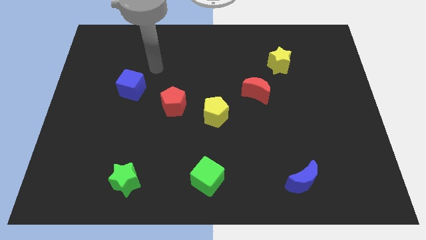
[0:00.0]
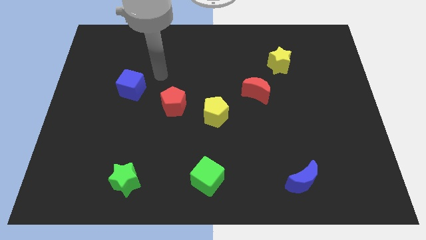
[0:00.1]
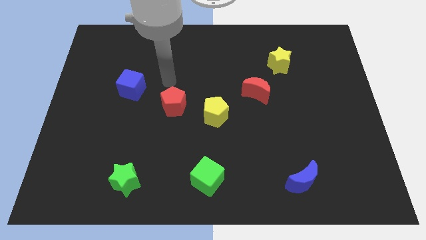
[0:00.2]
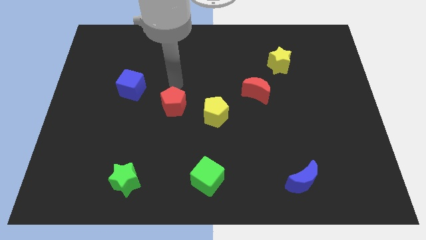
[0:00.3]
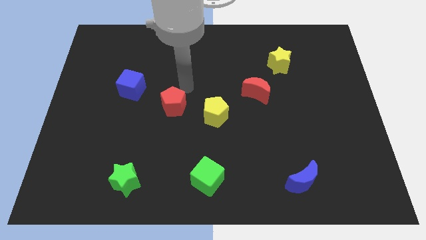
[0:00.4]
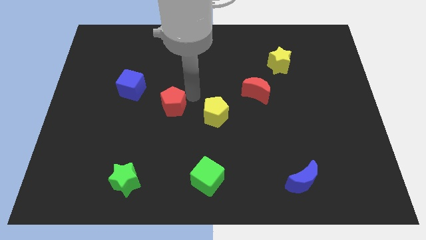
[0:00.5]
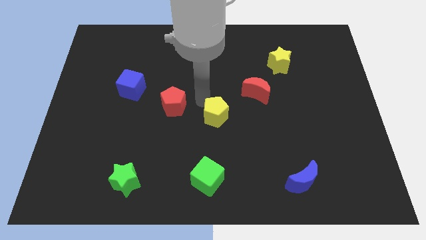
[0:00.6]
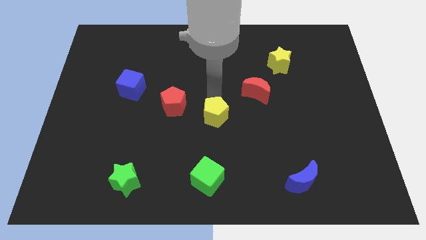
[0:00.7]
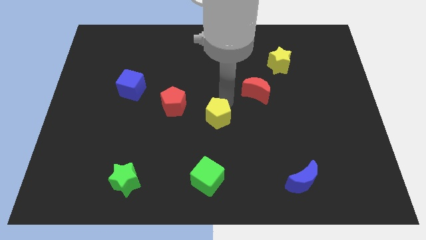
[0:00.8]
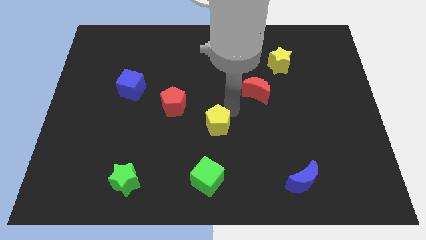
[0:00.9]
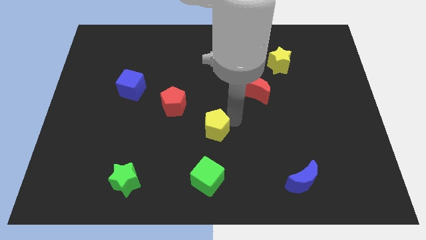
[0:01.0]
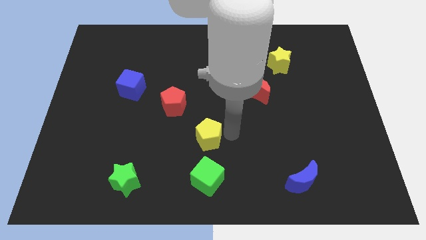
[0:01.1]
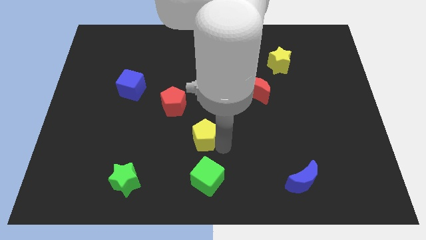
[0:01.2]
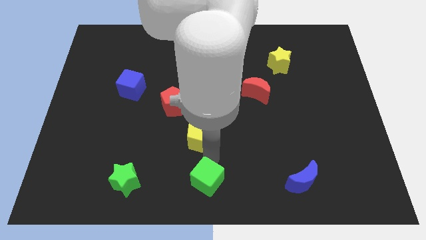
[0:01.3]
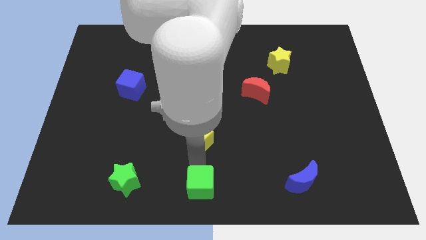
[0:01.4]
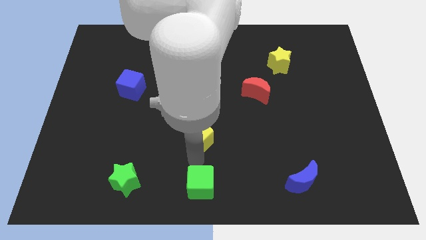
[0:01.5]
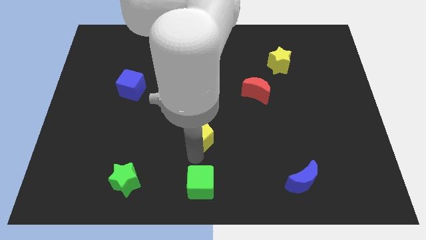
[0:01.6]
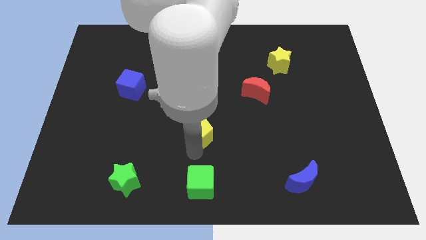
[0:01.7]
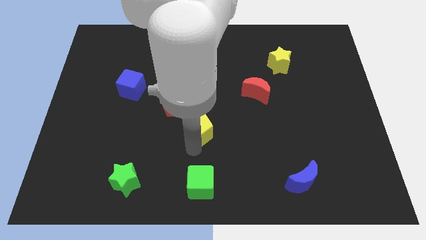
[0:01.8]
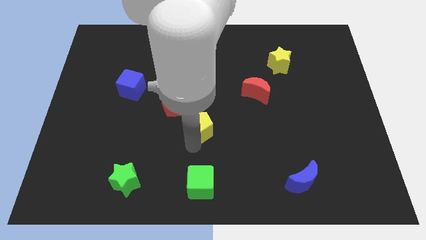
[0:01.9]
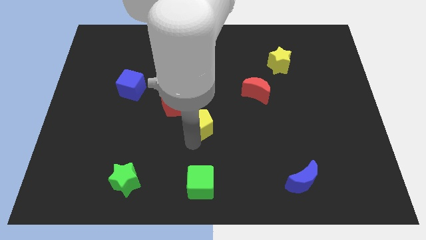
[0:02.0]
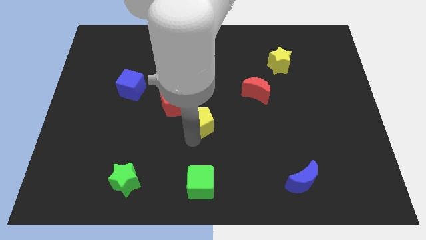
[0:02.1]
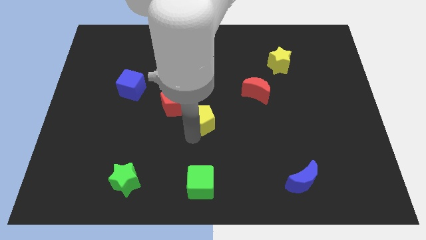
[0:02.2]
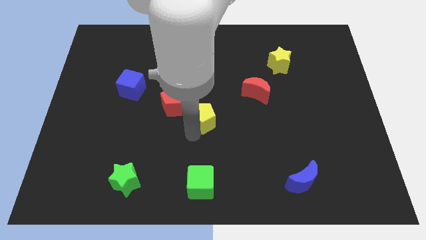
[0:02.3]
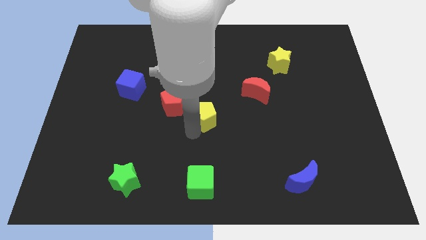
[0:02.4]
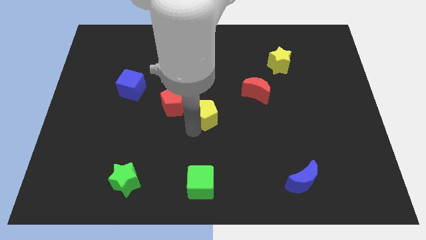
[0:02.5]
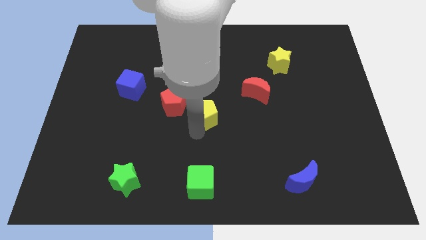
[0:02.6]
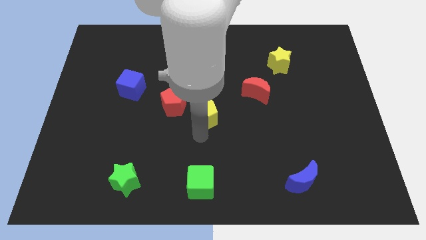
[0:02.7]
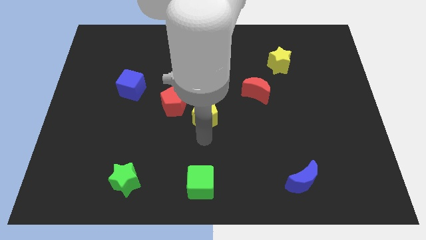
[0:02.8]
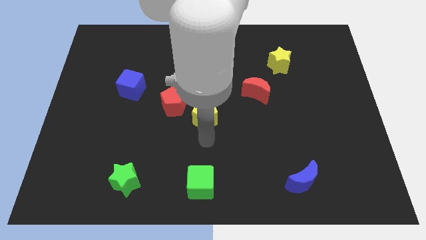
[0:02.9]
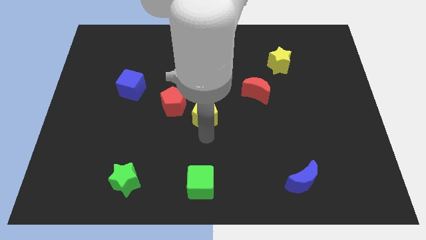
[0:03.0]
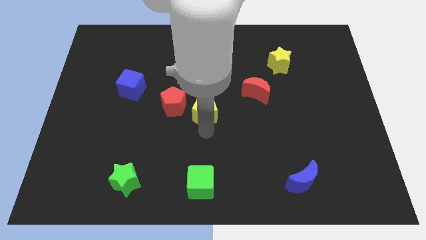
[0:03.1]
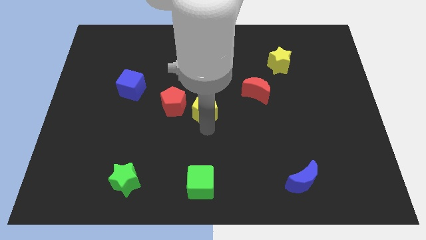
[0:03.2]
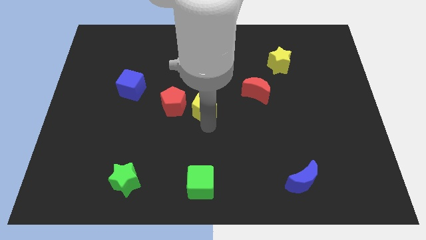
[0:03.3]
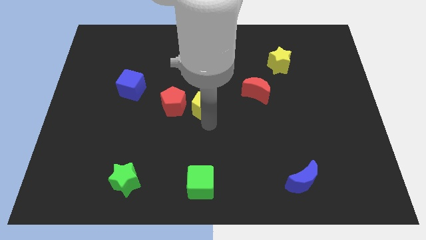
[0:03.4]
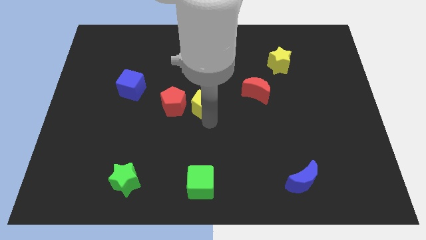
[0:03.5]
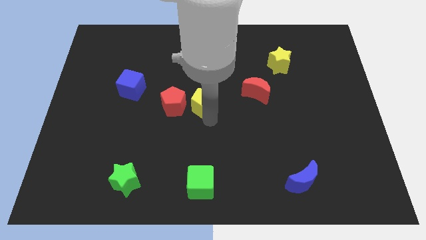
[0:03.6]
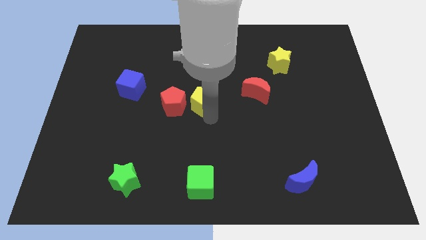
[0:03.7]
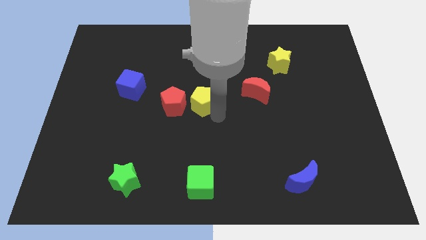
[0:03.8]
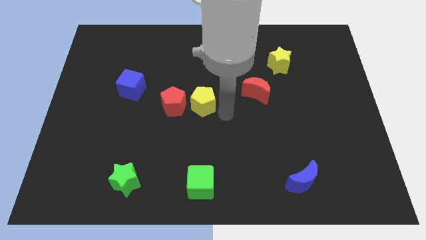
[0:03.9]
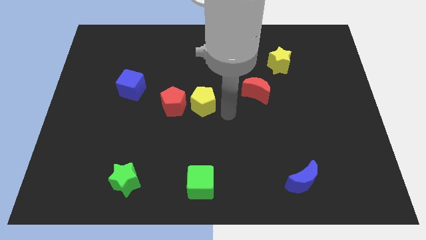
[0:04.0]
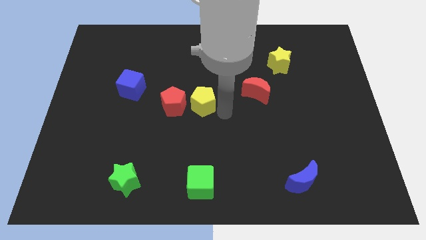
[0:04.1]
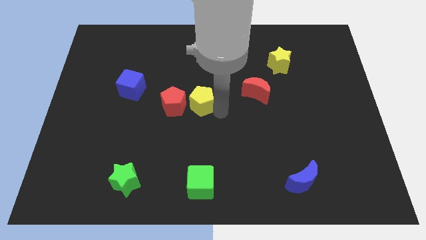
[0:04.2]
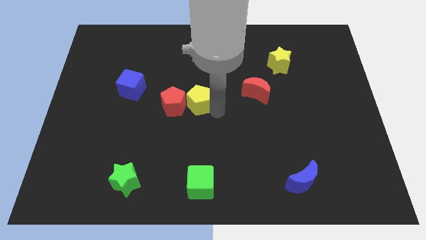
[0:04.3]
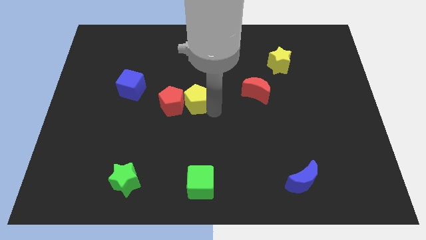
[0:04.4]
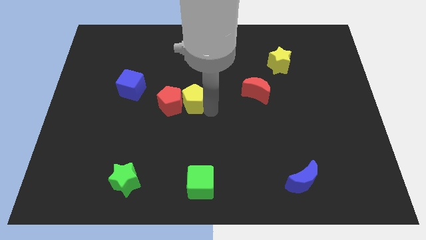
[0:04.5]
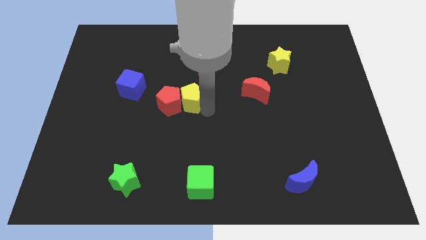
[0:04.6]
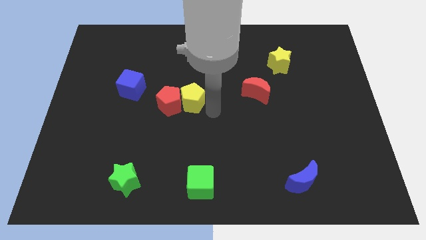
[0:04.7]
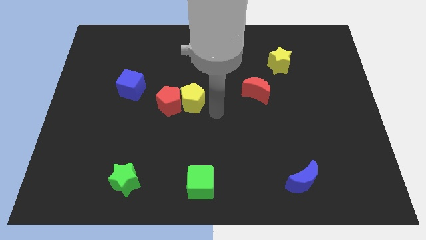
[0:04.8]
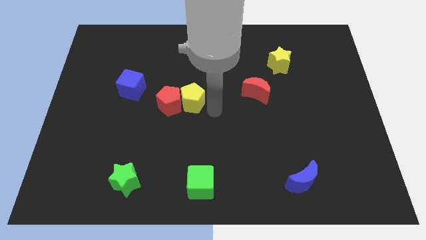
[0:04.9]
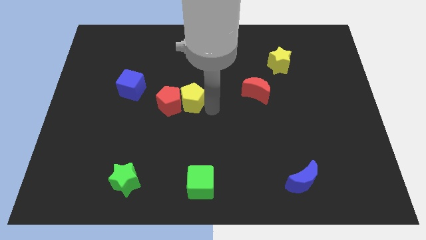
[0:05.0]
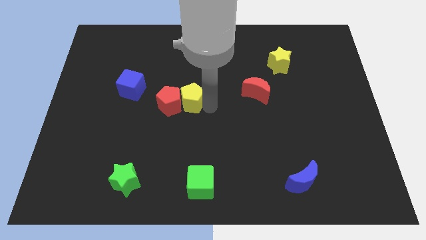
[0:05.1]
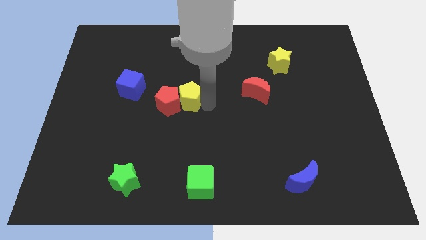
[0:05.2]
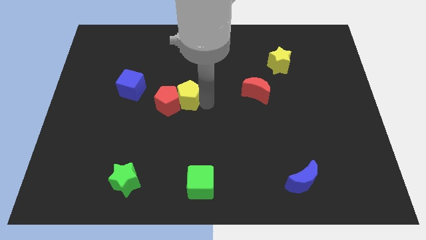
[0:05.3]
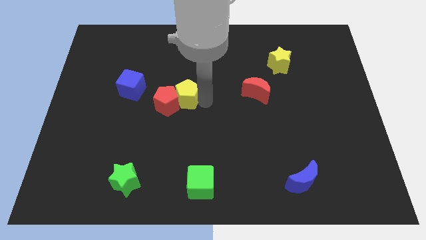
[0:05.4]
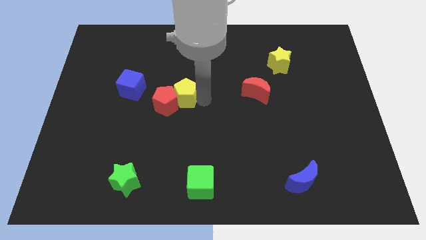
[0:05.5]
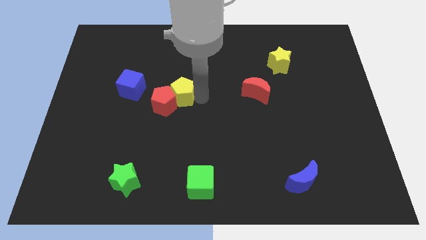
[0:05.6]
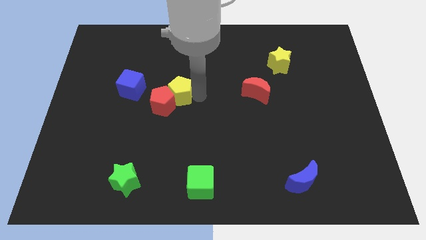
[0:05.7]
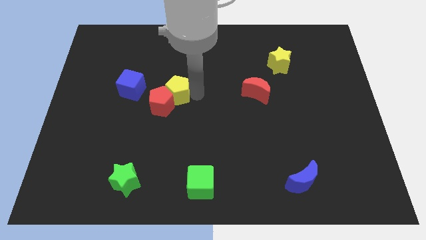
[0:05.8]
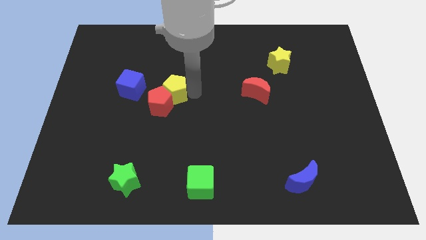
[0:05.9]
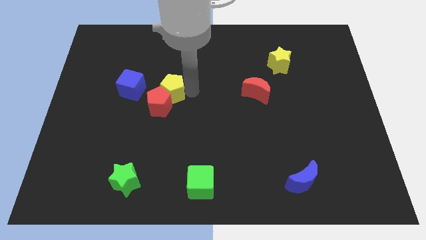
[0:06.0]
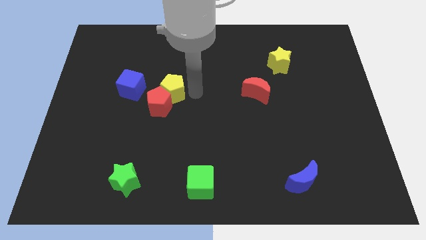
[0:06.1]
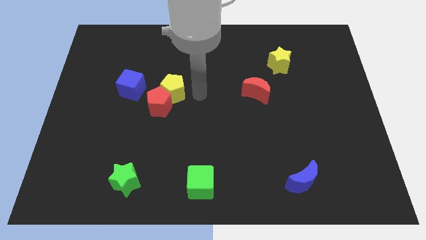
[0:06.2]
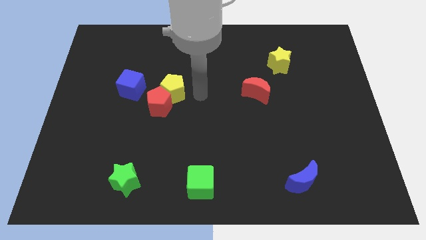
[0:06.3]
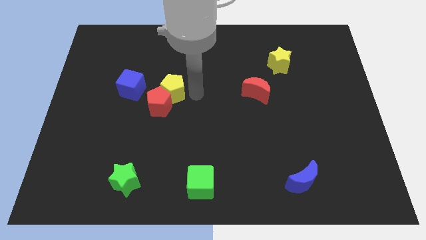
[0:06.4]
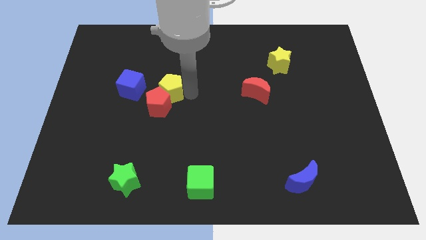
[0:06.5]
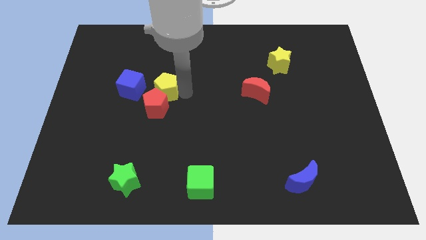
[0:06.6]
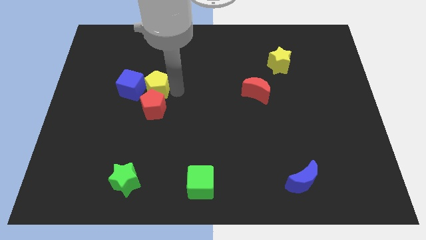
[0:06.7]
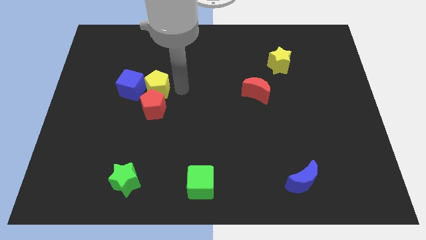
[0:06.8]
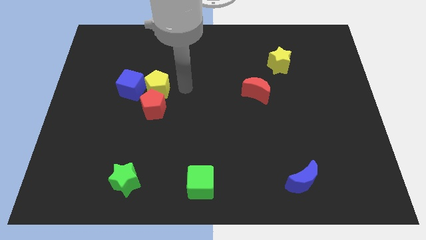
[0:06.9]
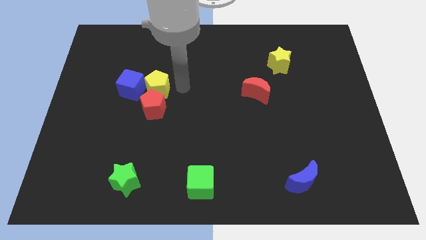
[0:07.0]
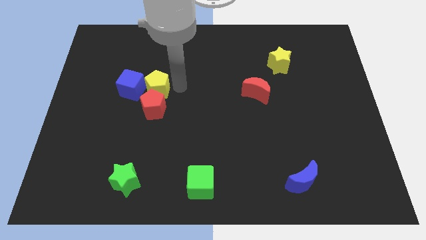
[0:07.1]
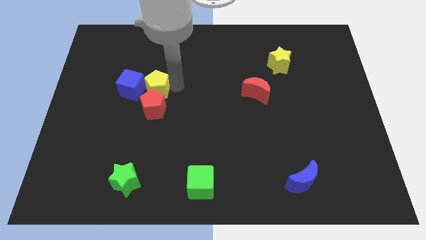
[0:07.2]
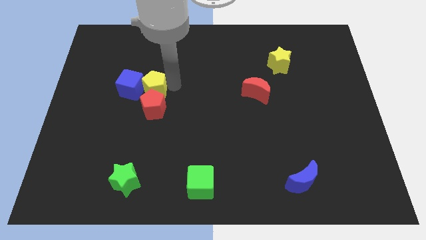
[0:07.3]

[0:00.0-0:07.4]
put the yellow pentagon next to the blue cube
